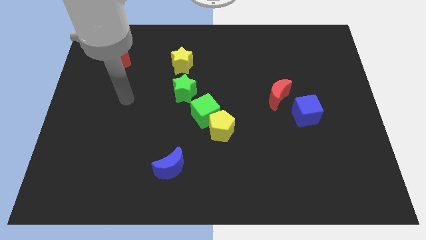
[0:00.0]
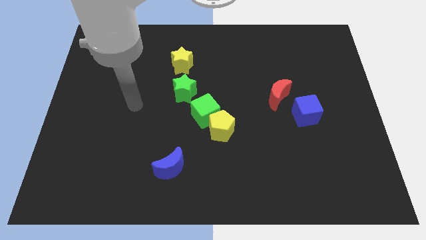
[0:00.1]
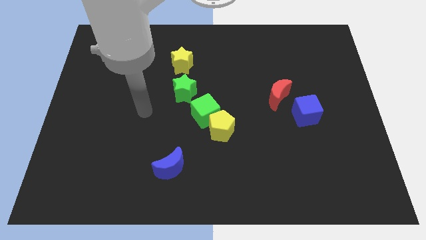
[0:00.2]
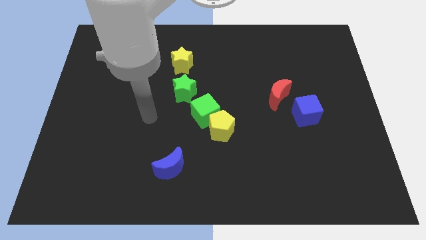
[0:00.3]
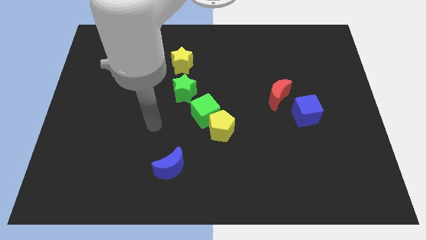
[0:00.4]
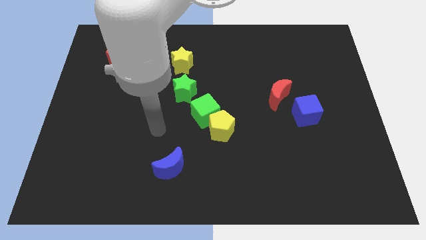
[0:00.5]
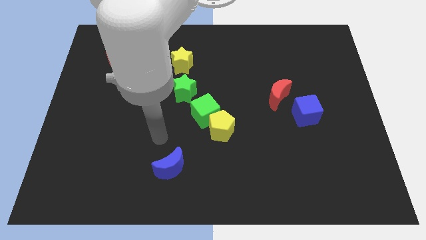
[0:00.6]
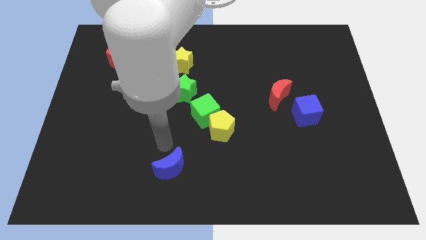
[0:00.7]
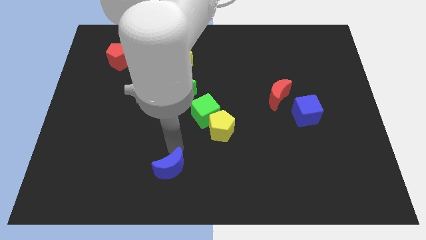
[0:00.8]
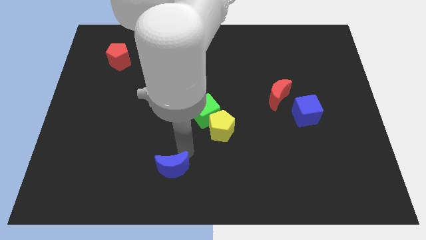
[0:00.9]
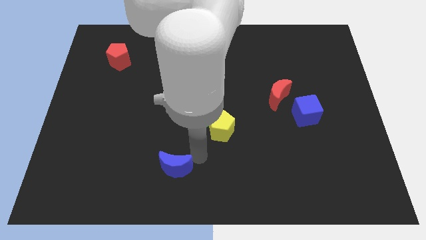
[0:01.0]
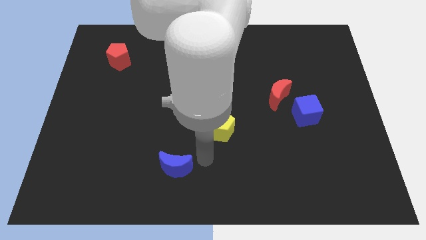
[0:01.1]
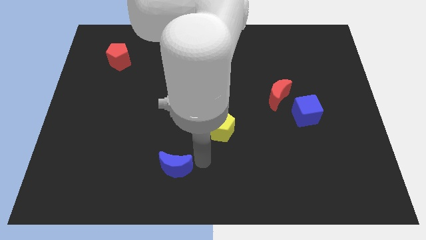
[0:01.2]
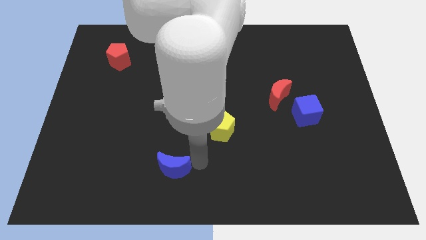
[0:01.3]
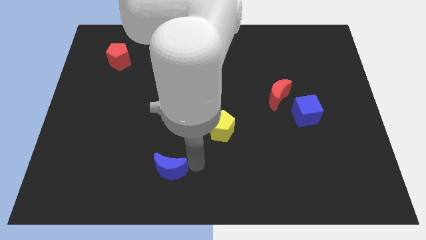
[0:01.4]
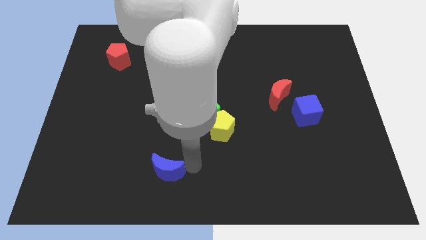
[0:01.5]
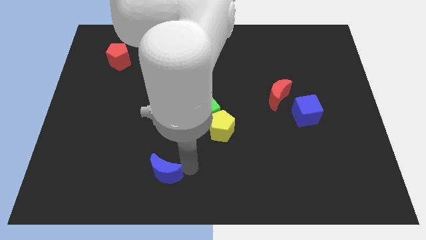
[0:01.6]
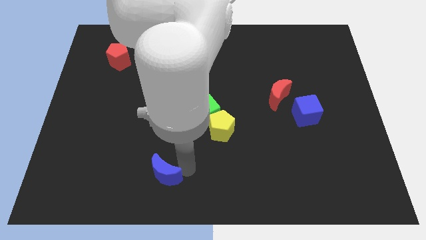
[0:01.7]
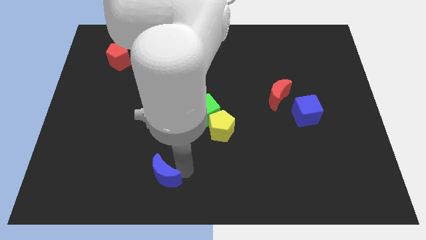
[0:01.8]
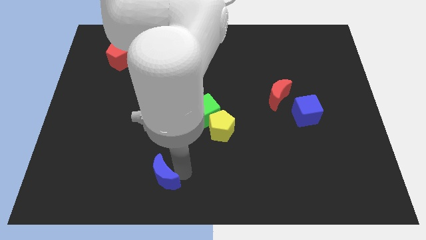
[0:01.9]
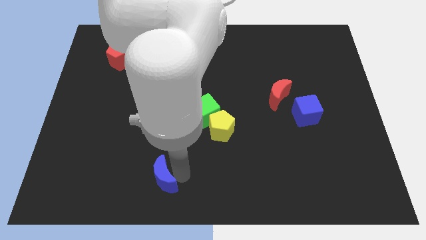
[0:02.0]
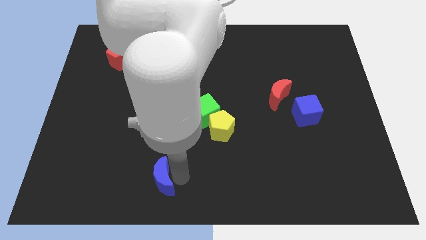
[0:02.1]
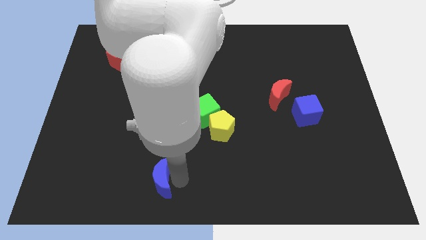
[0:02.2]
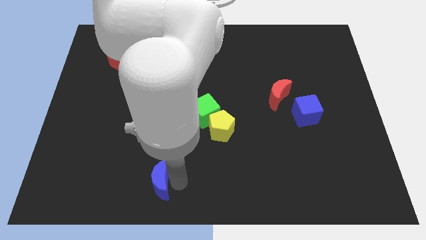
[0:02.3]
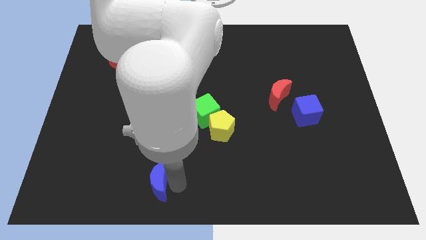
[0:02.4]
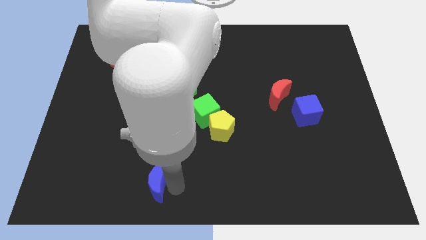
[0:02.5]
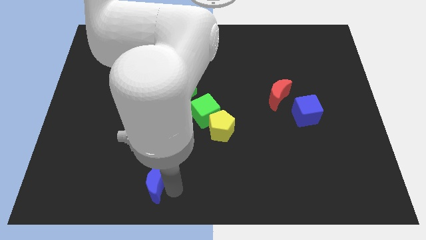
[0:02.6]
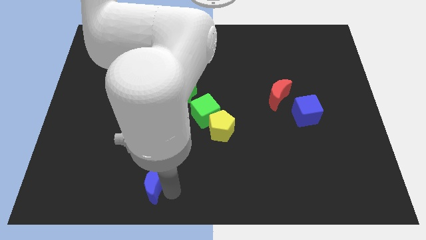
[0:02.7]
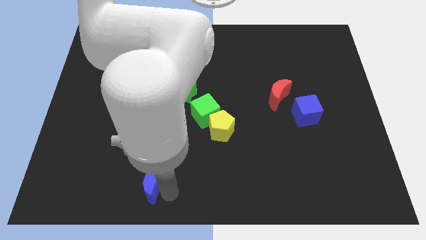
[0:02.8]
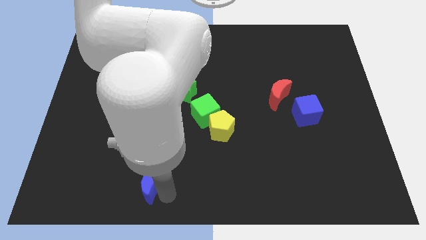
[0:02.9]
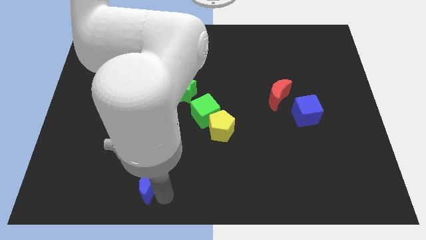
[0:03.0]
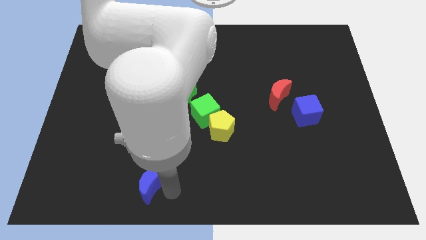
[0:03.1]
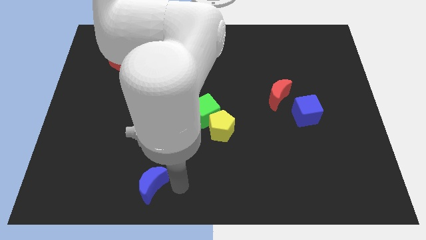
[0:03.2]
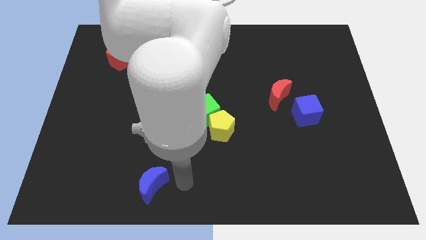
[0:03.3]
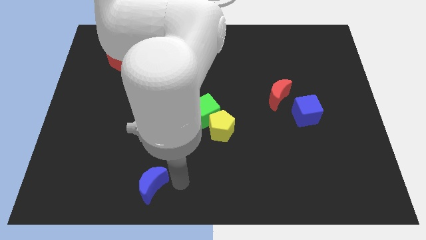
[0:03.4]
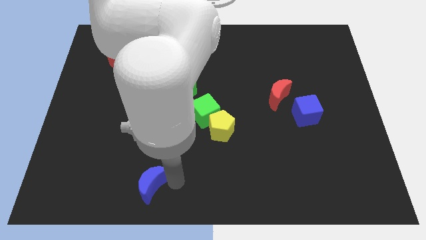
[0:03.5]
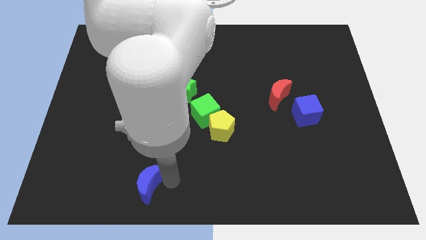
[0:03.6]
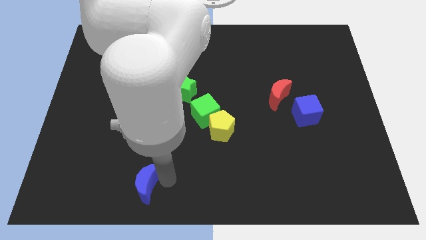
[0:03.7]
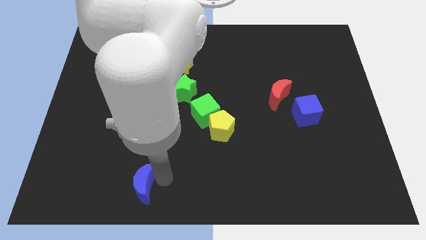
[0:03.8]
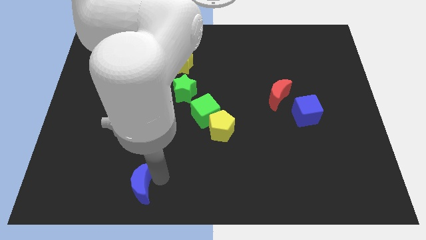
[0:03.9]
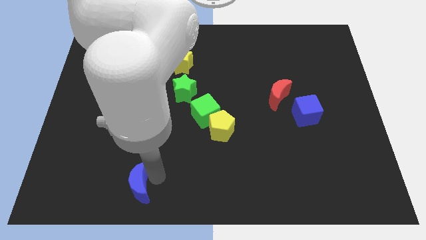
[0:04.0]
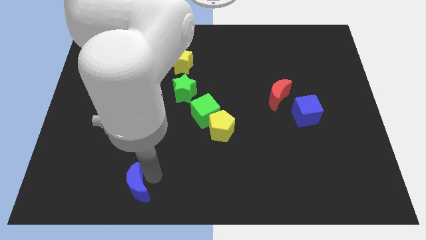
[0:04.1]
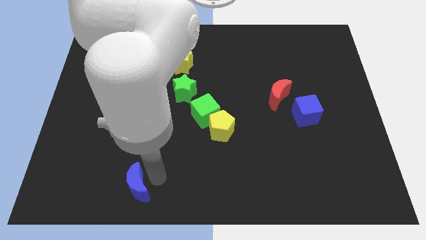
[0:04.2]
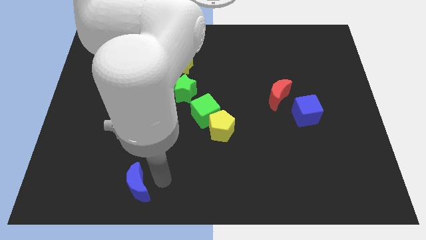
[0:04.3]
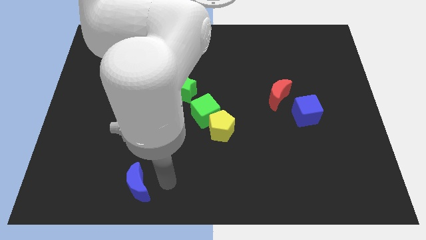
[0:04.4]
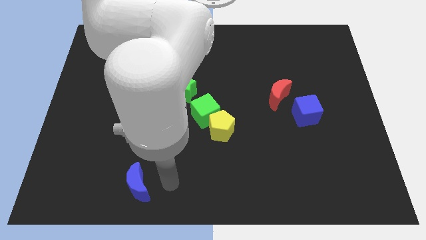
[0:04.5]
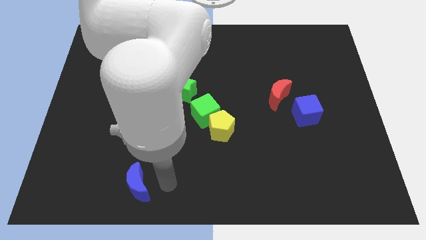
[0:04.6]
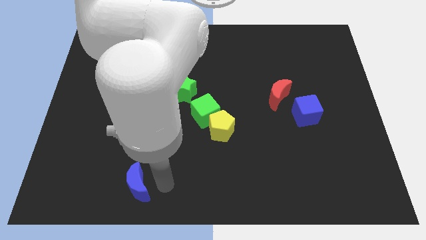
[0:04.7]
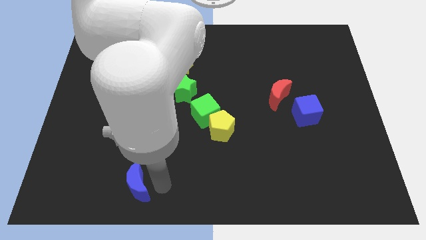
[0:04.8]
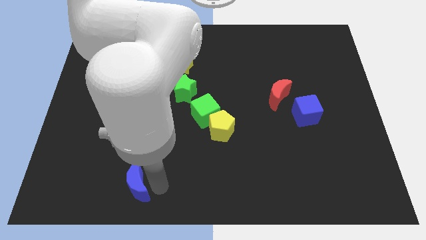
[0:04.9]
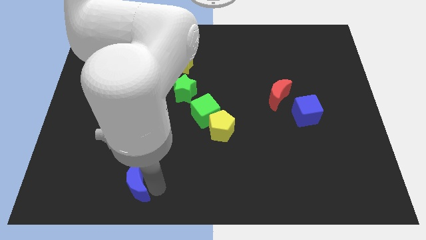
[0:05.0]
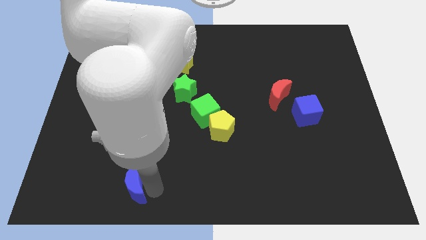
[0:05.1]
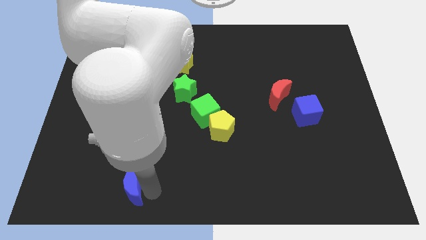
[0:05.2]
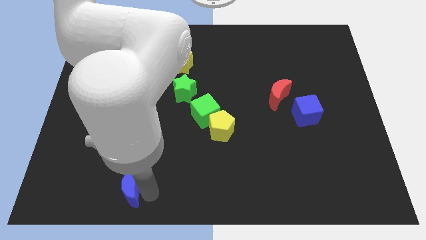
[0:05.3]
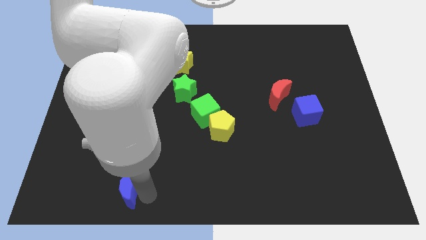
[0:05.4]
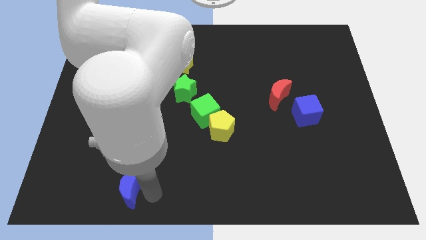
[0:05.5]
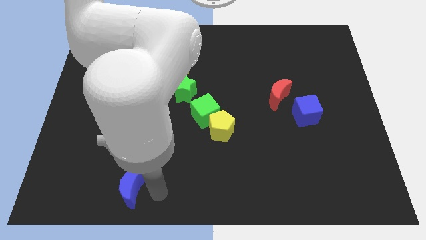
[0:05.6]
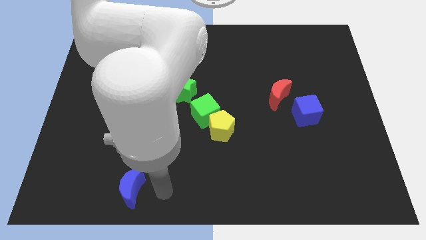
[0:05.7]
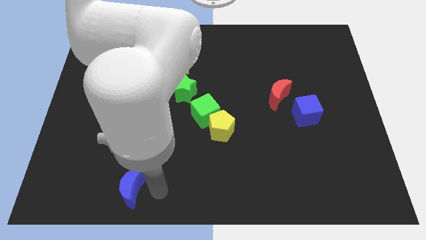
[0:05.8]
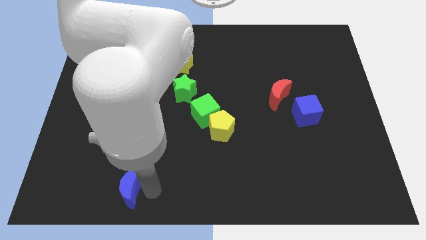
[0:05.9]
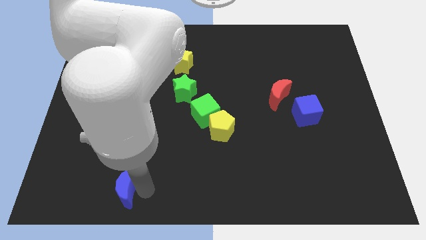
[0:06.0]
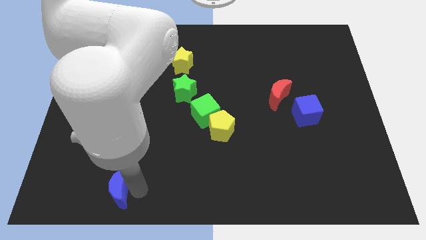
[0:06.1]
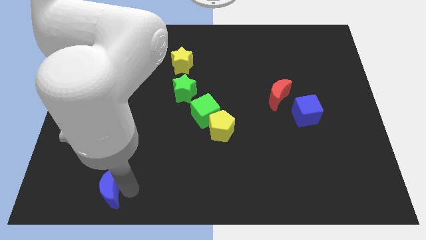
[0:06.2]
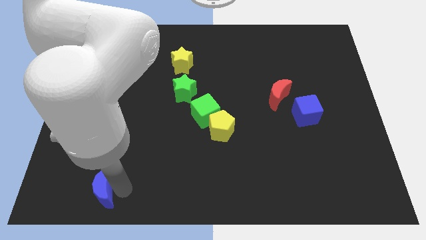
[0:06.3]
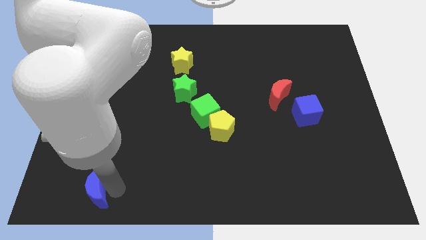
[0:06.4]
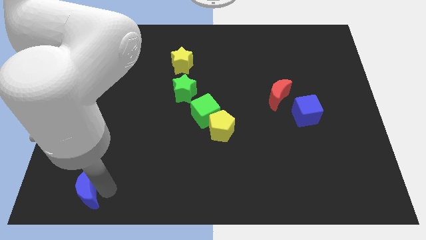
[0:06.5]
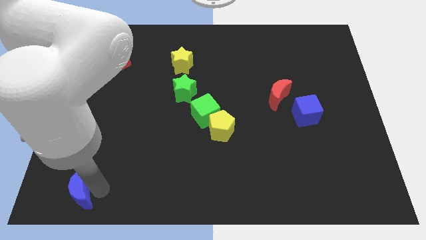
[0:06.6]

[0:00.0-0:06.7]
move the blue moon to the bottom left corner

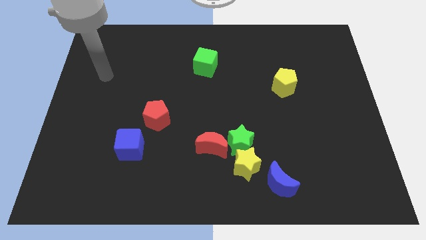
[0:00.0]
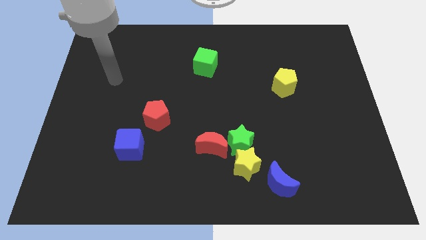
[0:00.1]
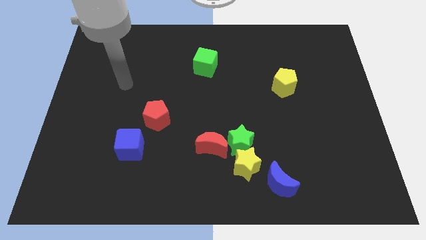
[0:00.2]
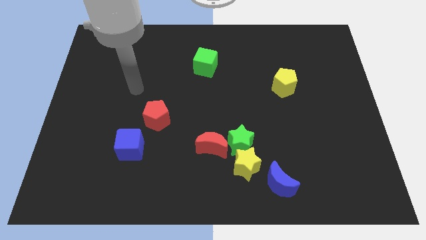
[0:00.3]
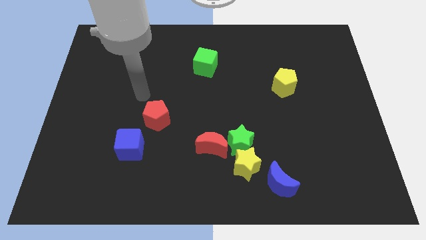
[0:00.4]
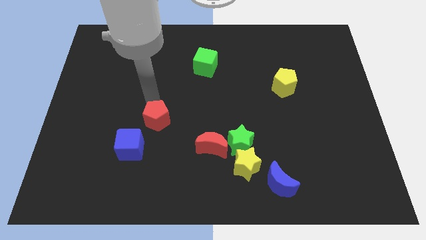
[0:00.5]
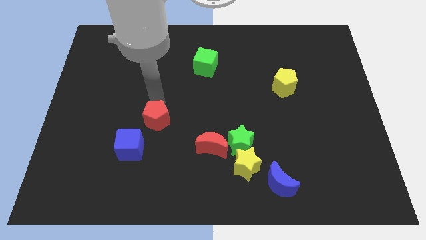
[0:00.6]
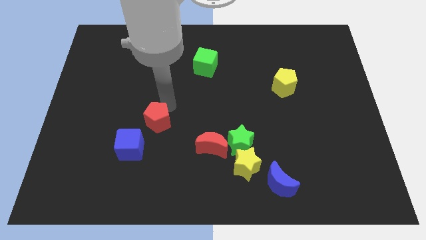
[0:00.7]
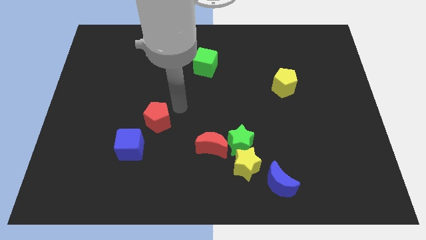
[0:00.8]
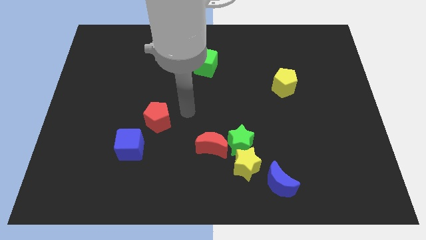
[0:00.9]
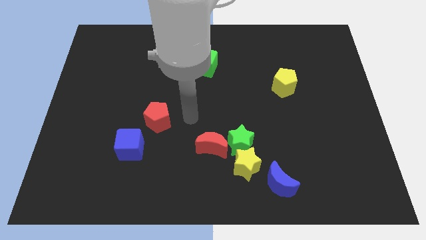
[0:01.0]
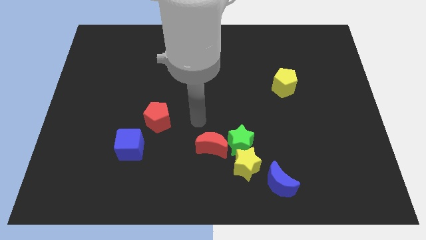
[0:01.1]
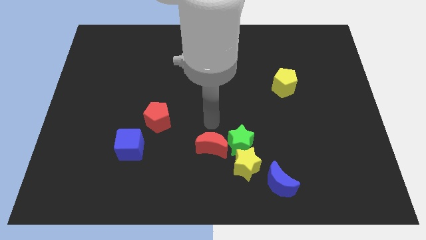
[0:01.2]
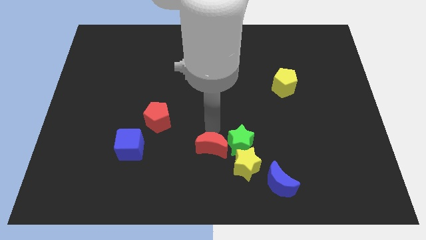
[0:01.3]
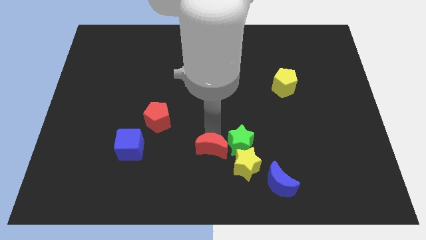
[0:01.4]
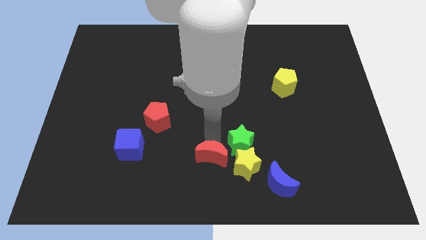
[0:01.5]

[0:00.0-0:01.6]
push the red moon to the bottom side
